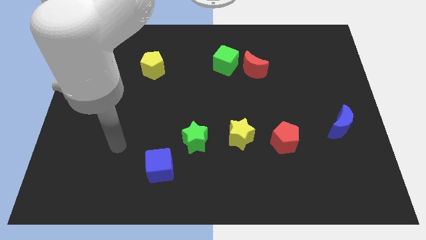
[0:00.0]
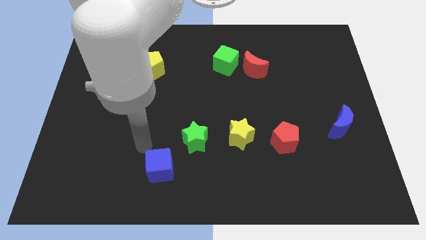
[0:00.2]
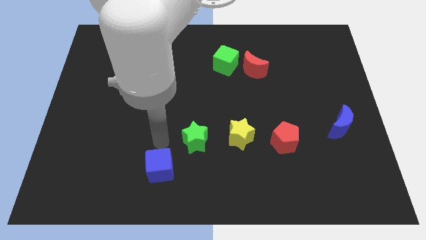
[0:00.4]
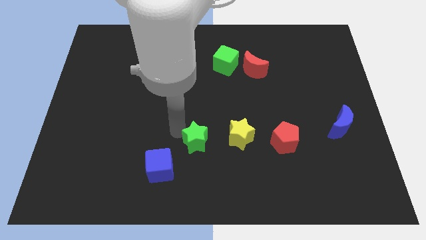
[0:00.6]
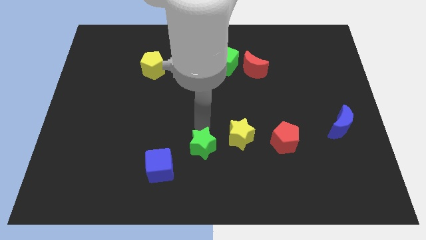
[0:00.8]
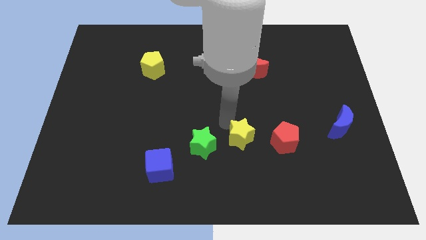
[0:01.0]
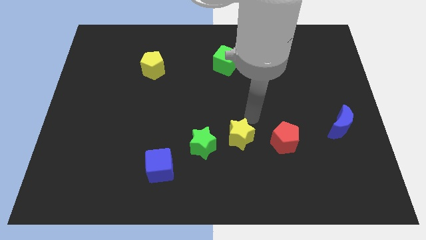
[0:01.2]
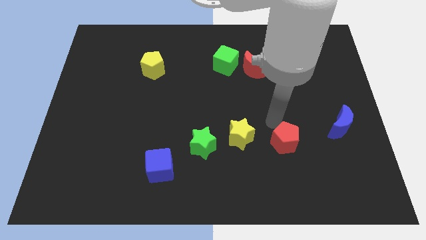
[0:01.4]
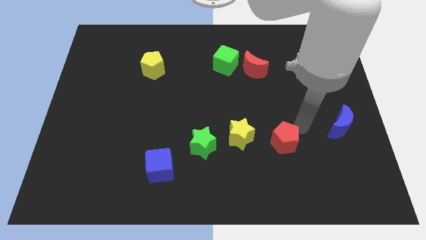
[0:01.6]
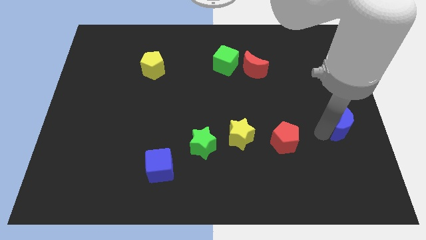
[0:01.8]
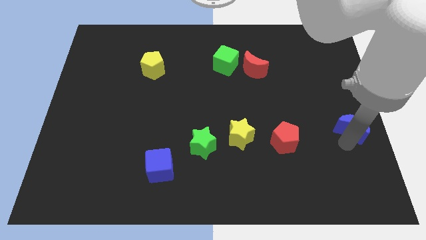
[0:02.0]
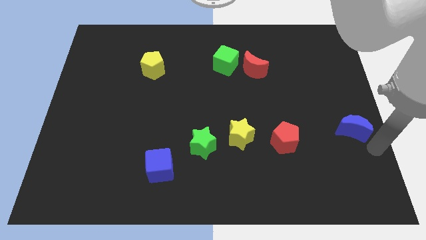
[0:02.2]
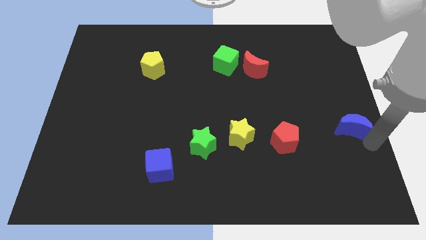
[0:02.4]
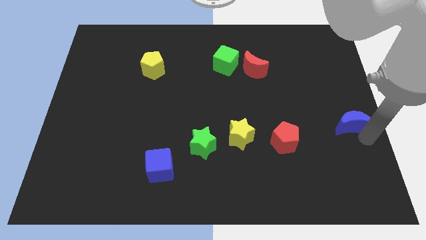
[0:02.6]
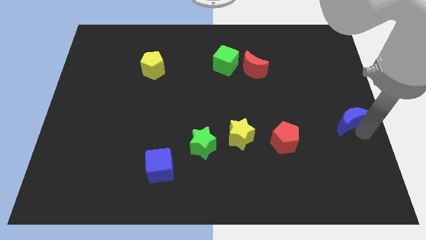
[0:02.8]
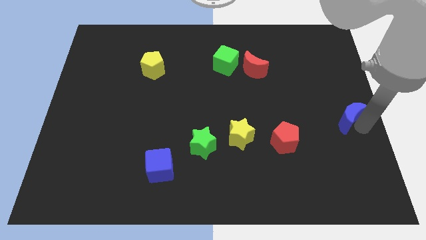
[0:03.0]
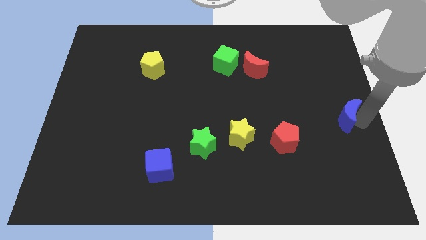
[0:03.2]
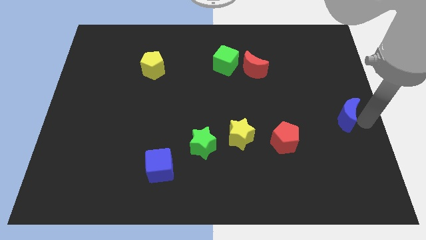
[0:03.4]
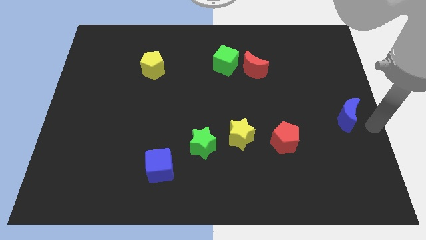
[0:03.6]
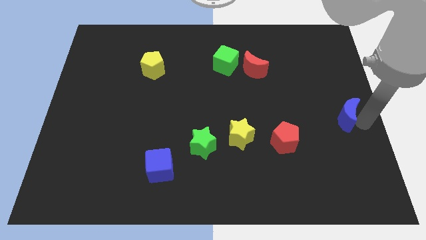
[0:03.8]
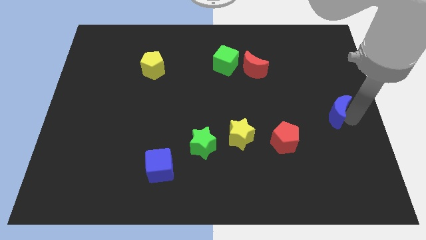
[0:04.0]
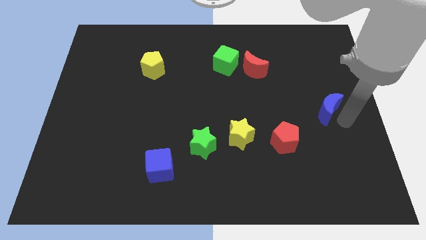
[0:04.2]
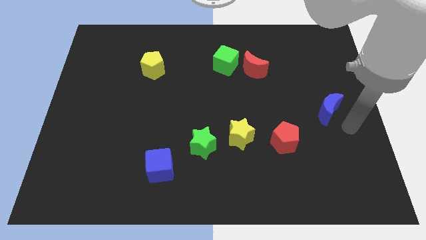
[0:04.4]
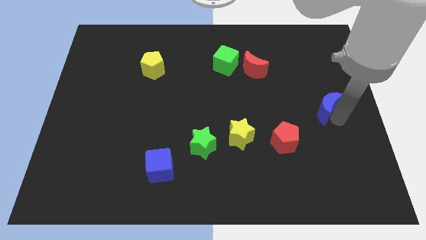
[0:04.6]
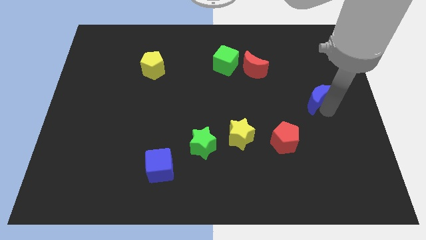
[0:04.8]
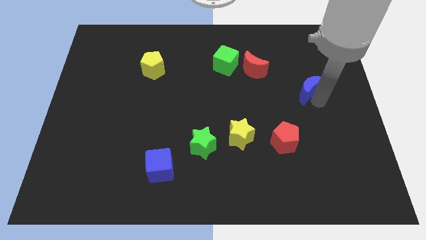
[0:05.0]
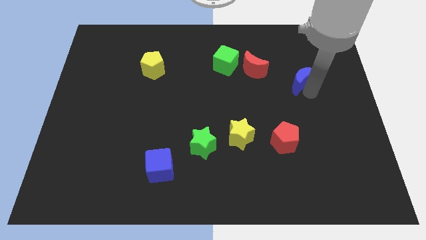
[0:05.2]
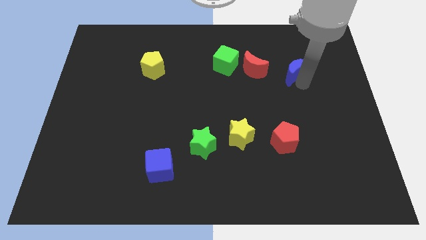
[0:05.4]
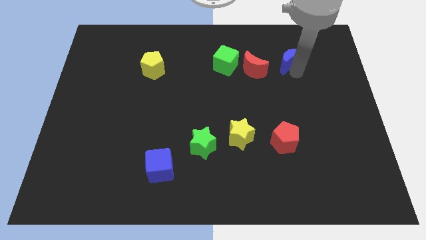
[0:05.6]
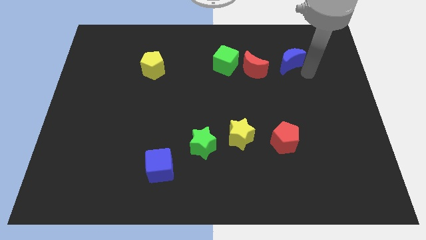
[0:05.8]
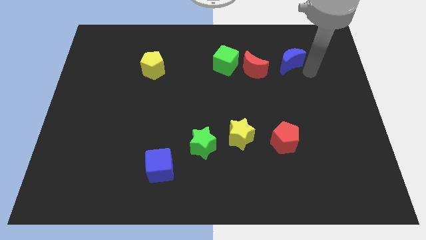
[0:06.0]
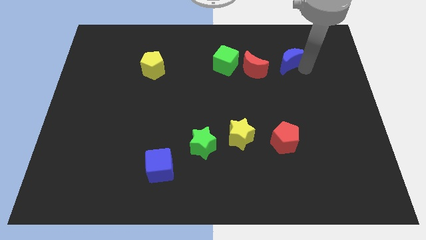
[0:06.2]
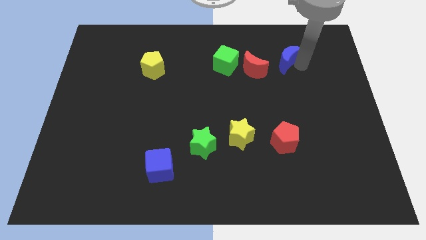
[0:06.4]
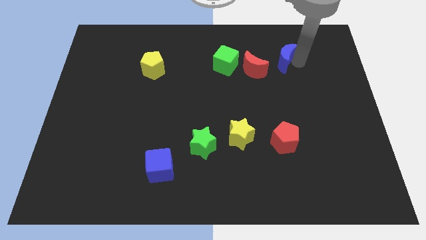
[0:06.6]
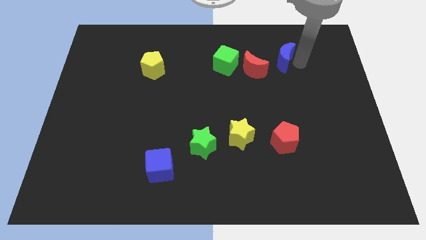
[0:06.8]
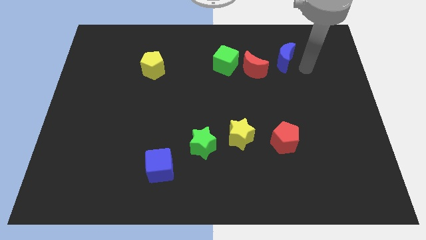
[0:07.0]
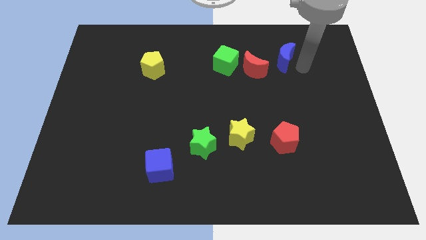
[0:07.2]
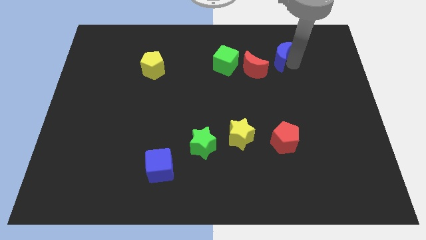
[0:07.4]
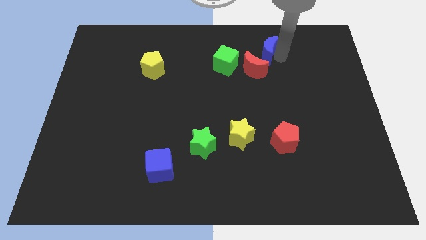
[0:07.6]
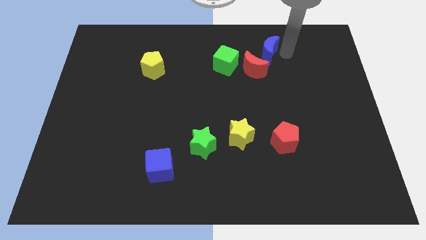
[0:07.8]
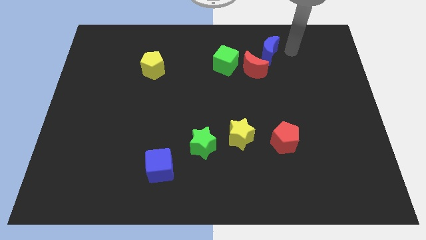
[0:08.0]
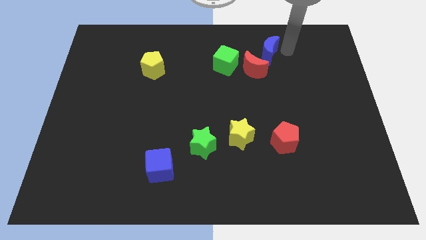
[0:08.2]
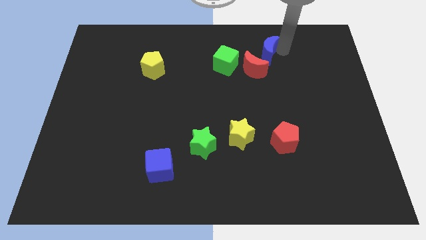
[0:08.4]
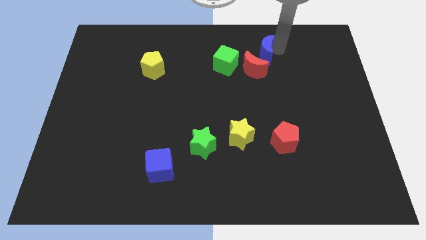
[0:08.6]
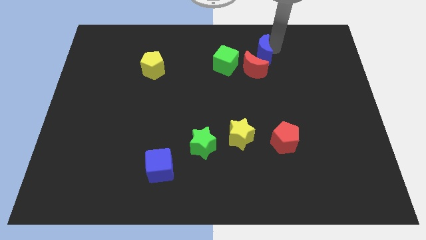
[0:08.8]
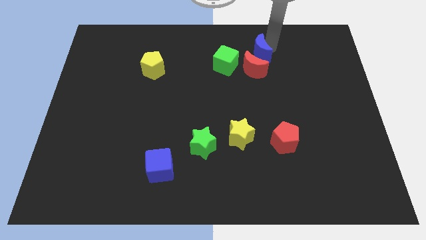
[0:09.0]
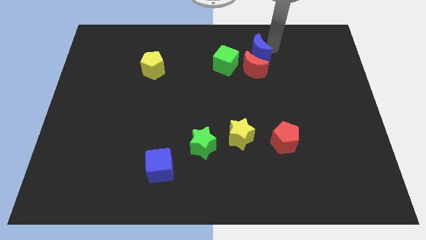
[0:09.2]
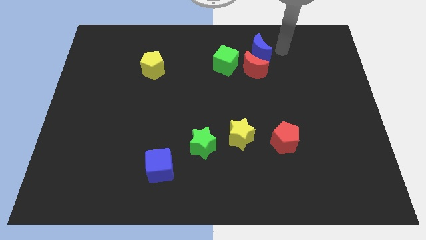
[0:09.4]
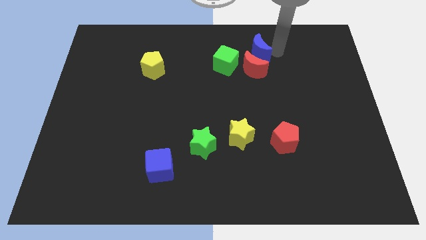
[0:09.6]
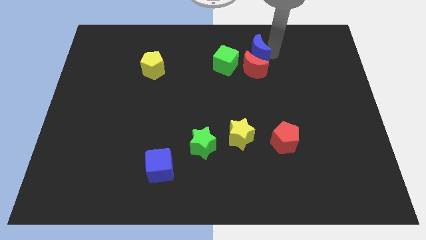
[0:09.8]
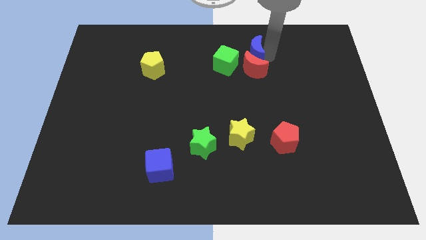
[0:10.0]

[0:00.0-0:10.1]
move the blue moon to the top left side of the red moon

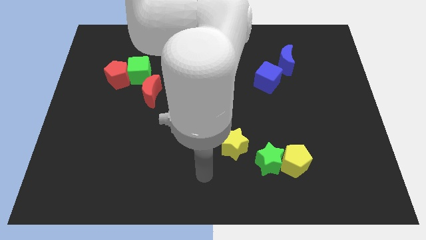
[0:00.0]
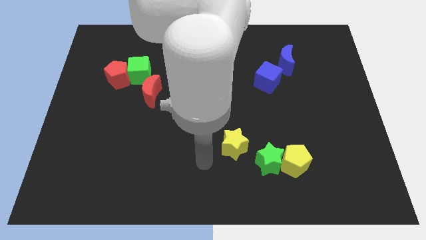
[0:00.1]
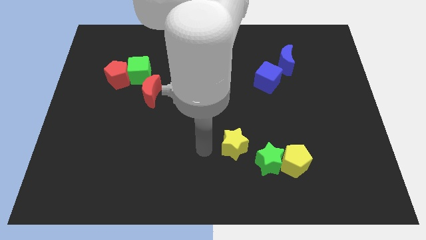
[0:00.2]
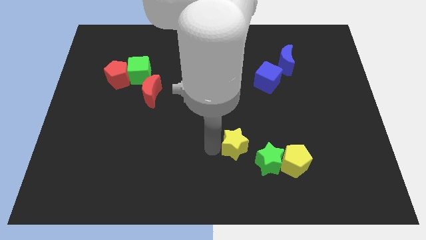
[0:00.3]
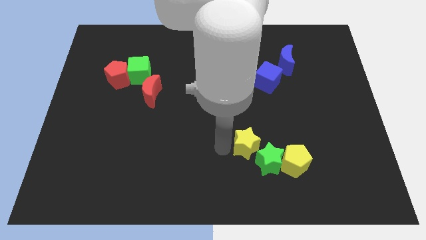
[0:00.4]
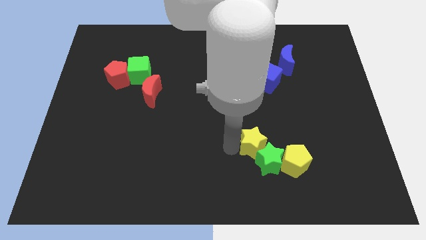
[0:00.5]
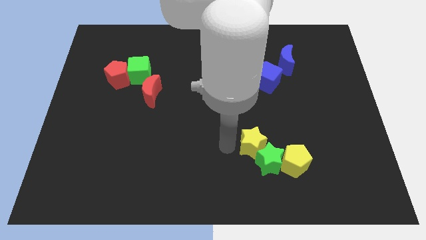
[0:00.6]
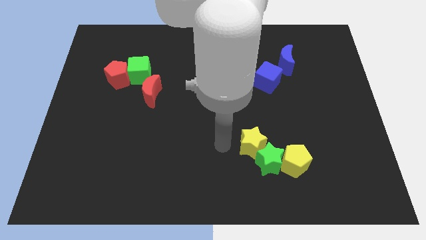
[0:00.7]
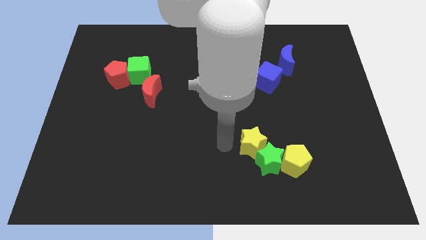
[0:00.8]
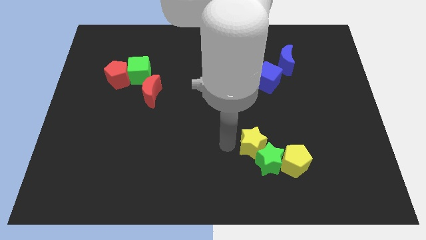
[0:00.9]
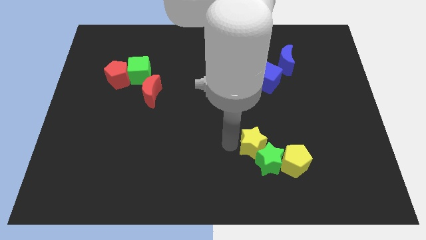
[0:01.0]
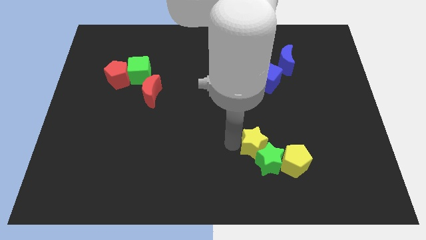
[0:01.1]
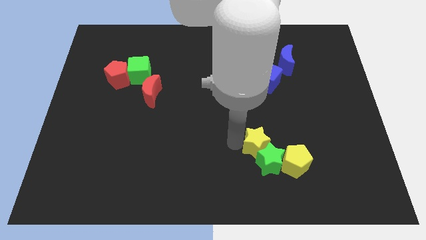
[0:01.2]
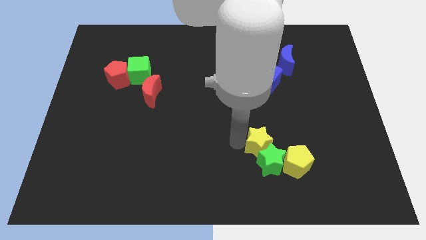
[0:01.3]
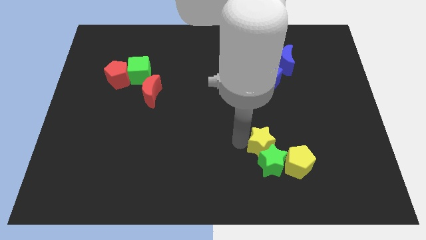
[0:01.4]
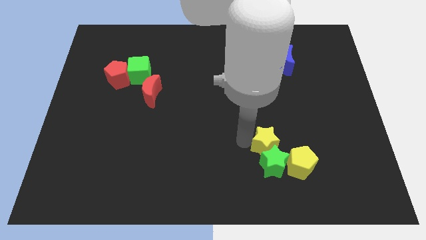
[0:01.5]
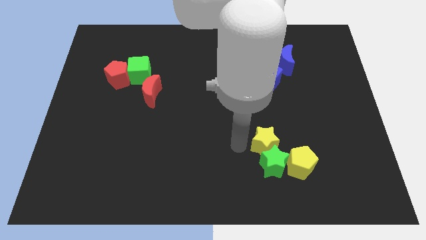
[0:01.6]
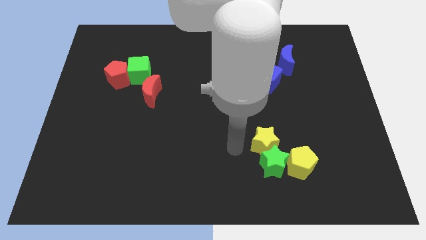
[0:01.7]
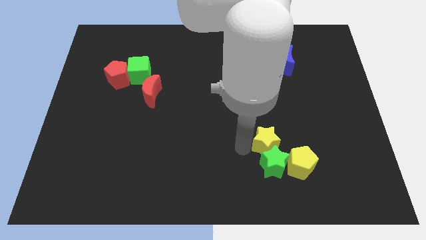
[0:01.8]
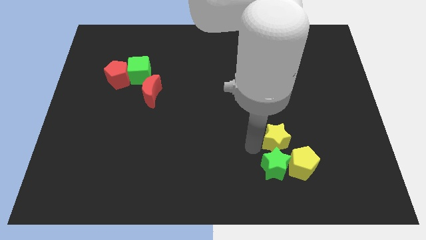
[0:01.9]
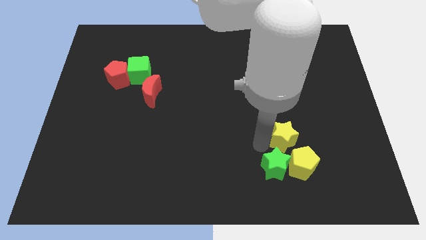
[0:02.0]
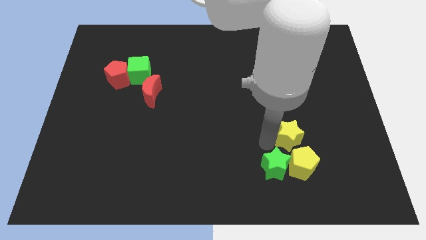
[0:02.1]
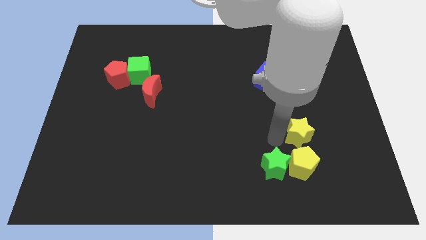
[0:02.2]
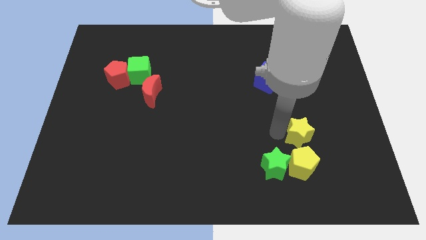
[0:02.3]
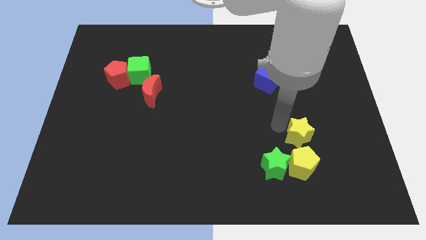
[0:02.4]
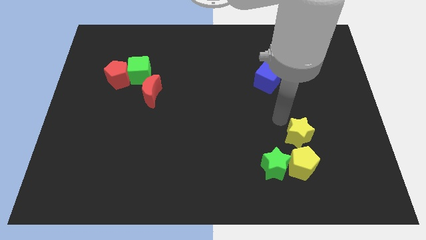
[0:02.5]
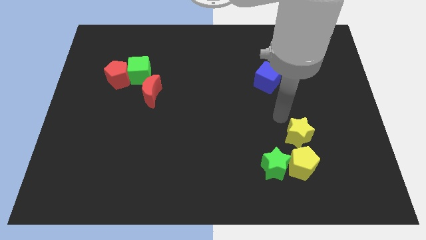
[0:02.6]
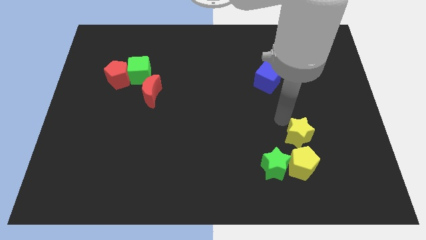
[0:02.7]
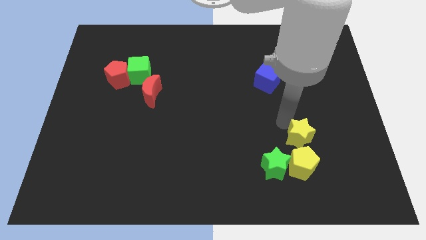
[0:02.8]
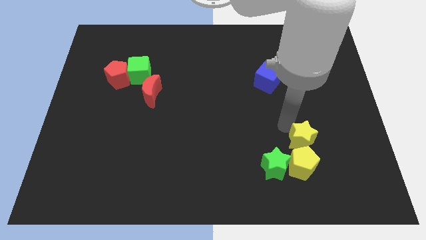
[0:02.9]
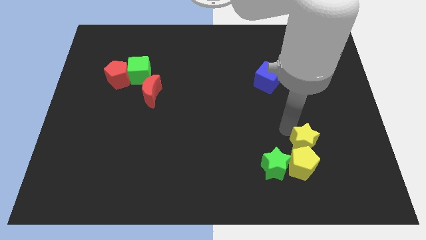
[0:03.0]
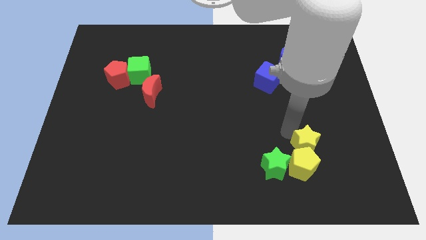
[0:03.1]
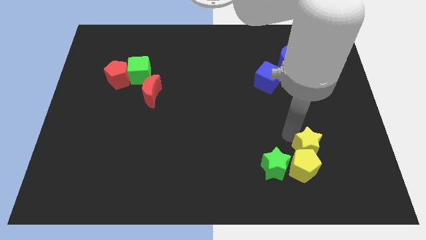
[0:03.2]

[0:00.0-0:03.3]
slide the yellow star to the right of the green star

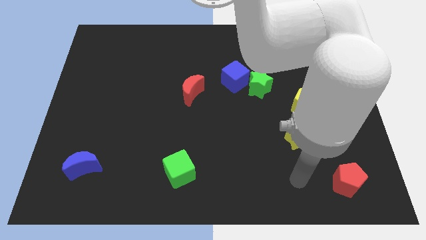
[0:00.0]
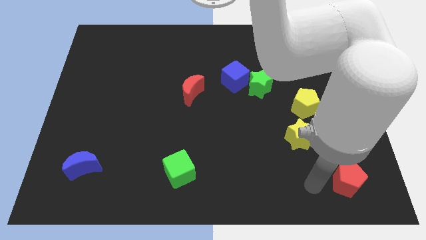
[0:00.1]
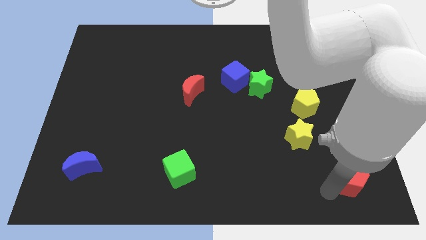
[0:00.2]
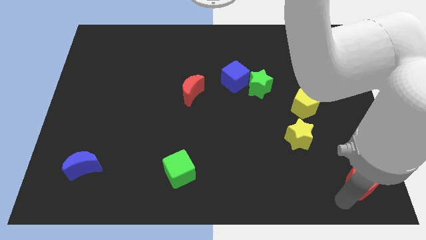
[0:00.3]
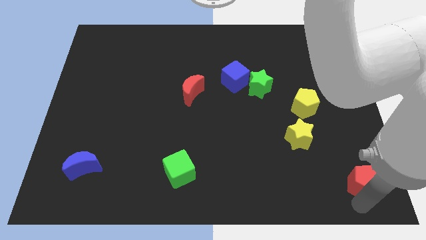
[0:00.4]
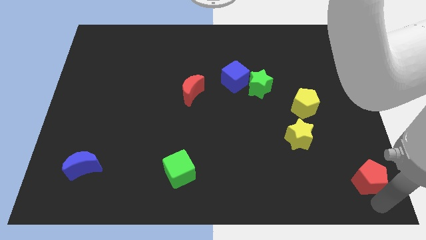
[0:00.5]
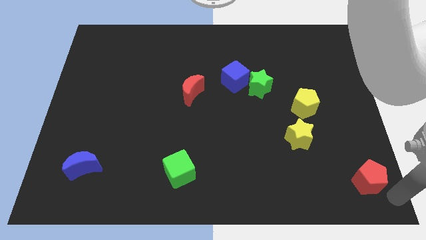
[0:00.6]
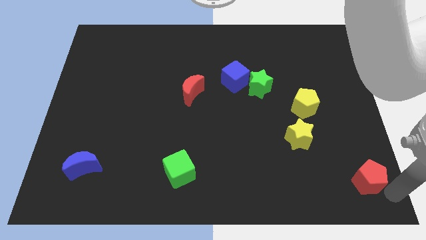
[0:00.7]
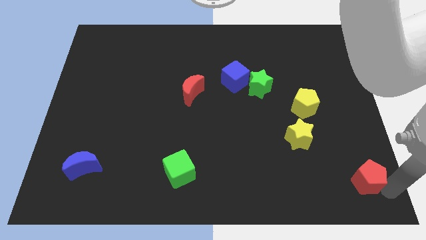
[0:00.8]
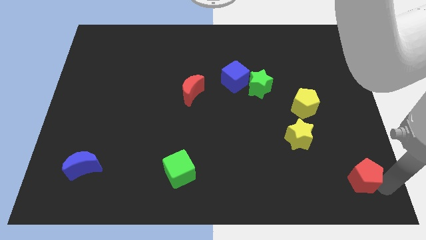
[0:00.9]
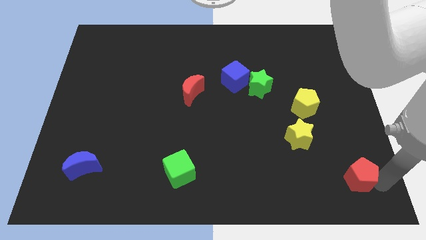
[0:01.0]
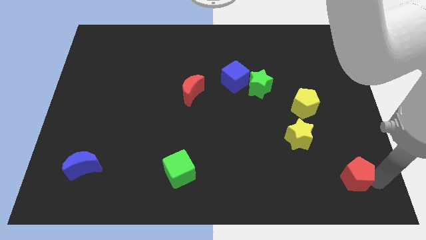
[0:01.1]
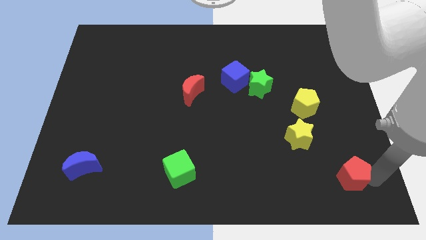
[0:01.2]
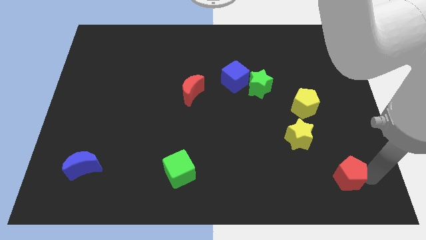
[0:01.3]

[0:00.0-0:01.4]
move the red pentagon to the bottom right of the yellow star
